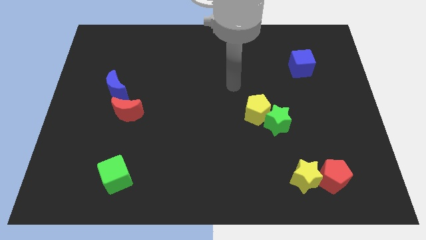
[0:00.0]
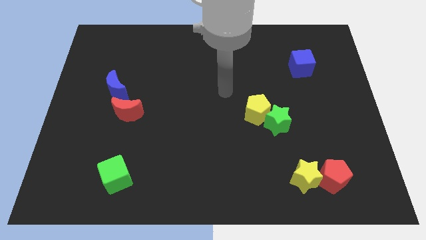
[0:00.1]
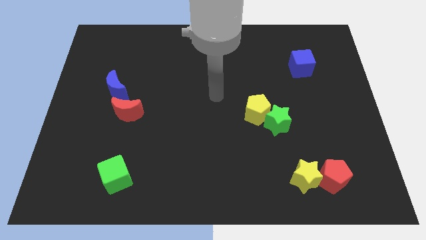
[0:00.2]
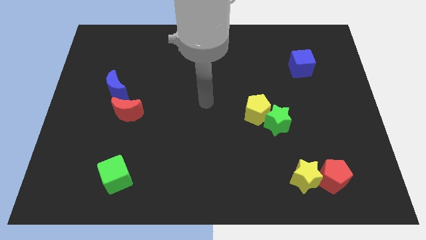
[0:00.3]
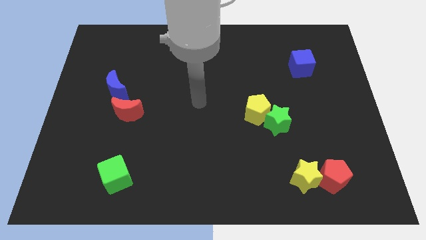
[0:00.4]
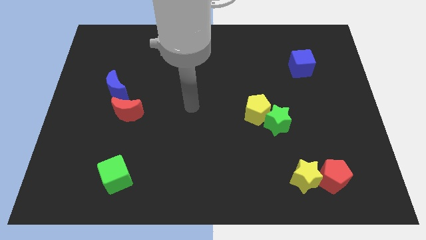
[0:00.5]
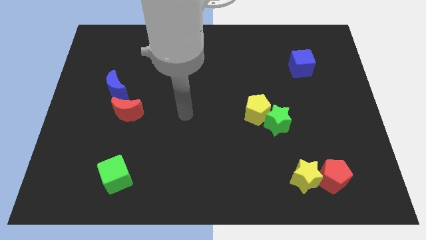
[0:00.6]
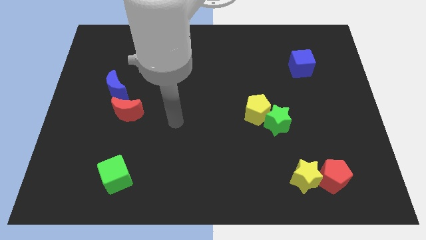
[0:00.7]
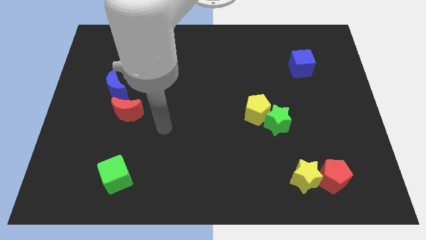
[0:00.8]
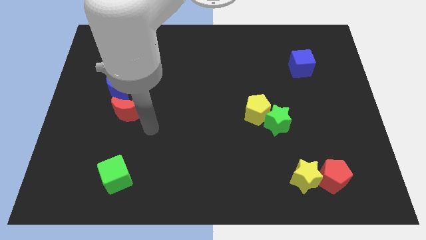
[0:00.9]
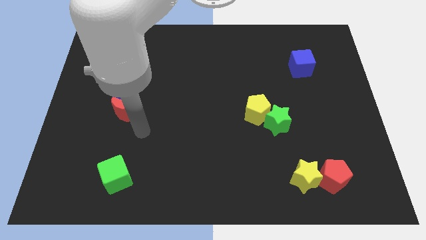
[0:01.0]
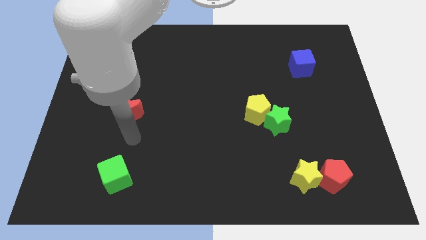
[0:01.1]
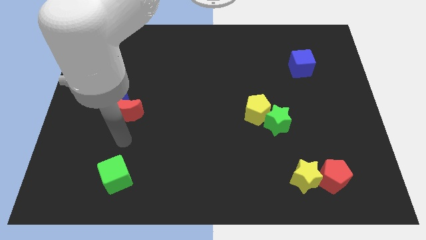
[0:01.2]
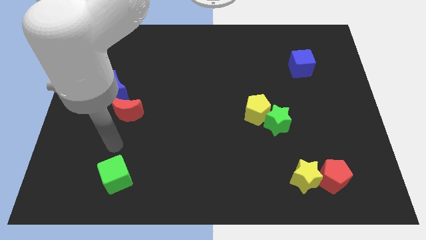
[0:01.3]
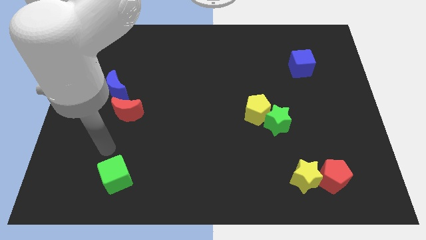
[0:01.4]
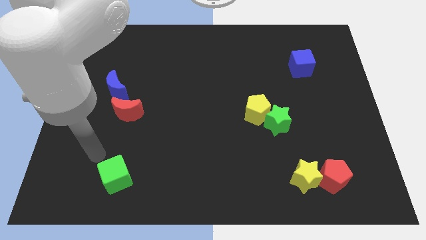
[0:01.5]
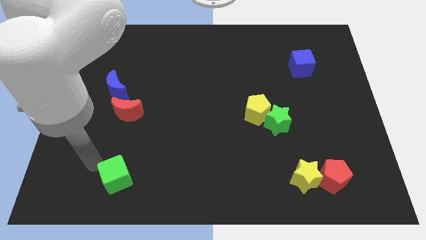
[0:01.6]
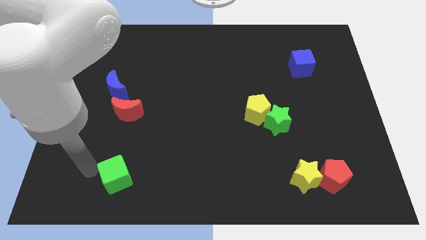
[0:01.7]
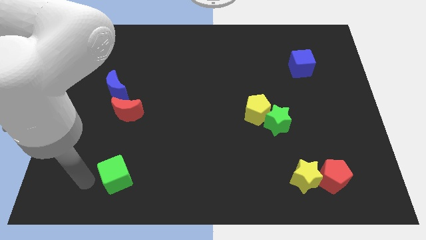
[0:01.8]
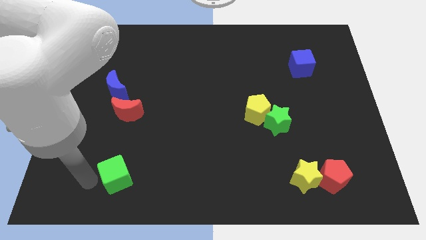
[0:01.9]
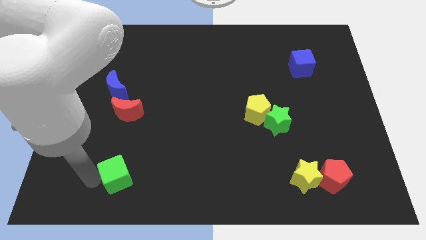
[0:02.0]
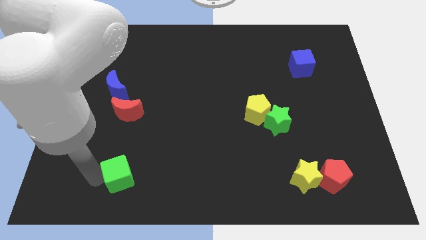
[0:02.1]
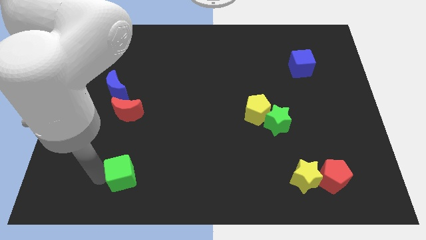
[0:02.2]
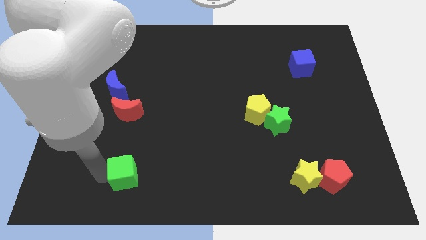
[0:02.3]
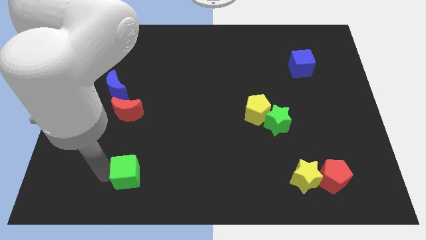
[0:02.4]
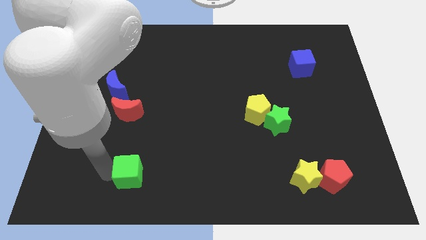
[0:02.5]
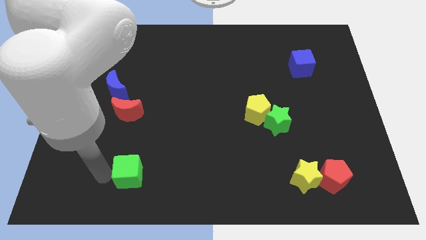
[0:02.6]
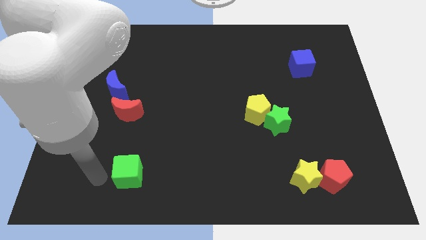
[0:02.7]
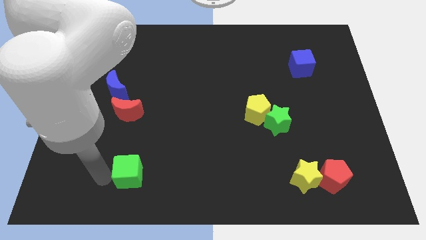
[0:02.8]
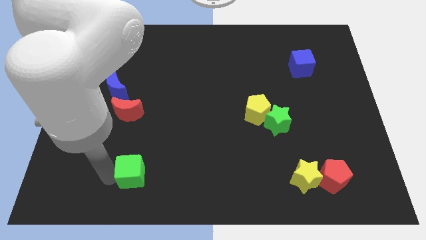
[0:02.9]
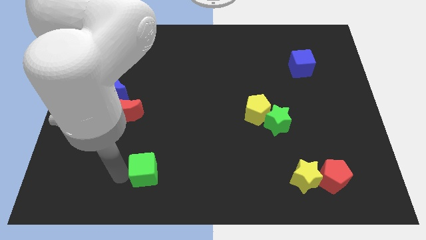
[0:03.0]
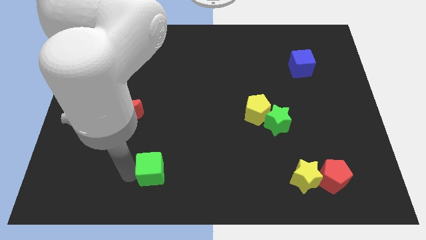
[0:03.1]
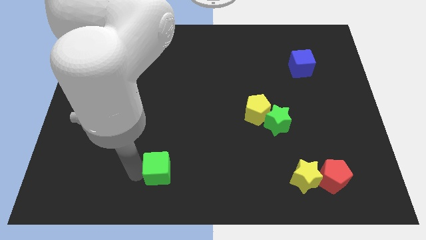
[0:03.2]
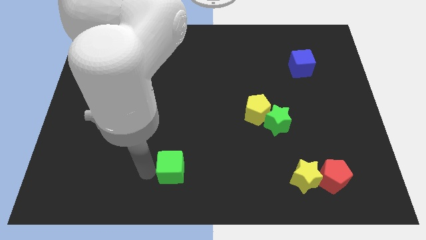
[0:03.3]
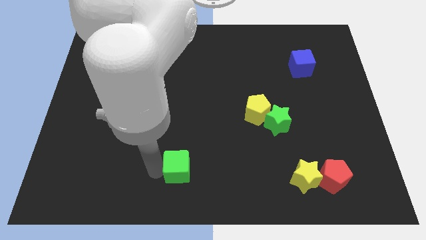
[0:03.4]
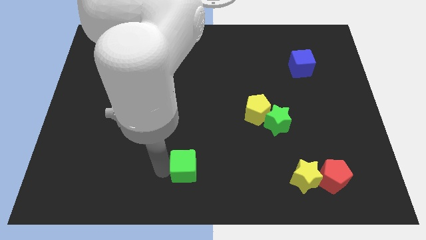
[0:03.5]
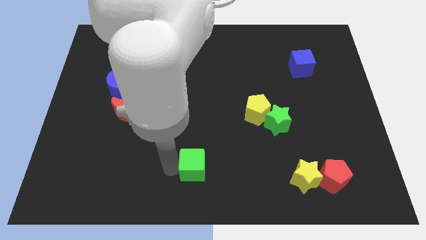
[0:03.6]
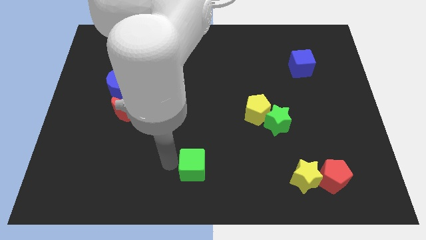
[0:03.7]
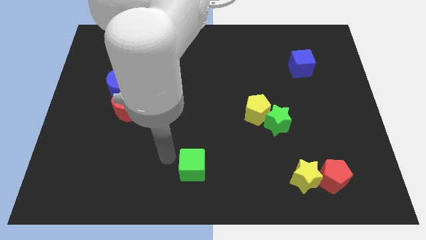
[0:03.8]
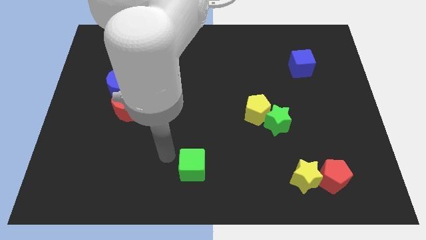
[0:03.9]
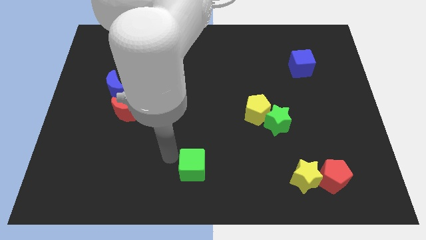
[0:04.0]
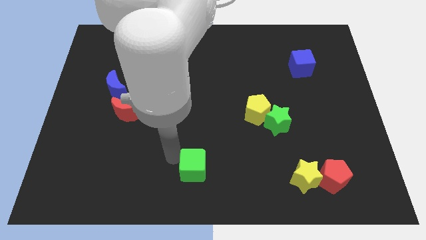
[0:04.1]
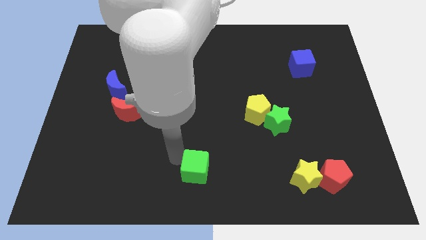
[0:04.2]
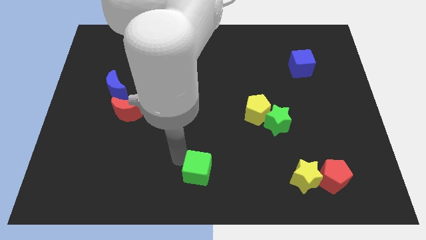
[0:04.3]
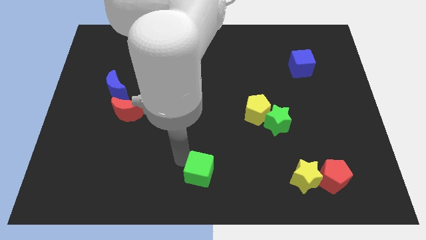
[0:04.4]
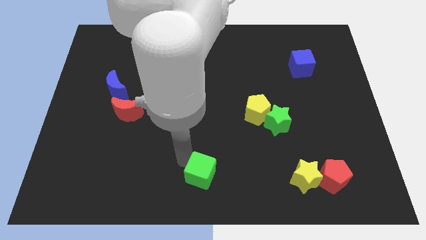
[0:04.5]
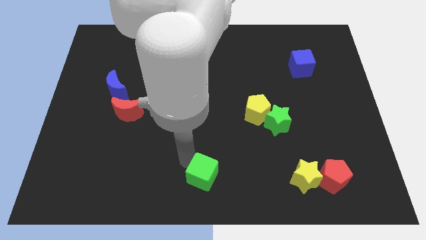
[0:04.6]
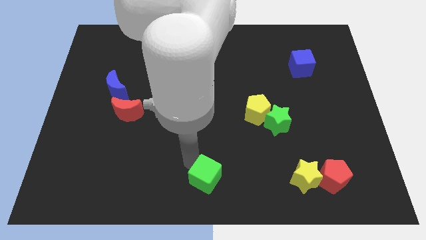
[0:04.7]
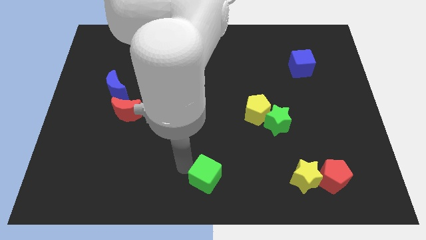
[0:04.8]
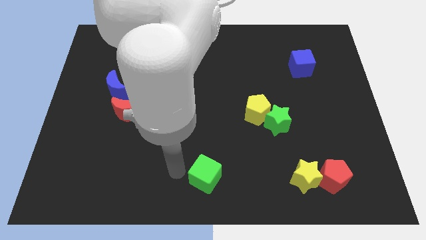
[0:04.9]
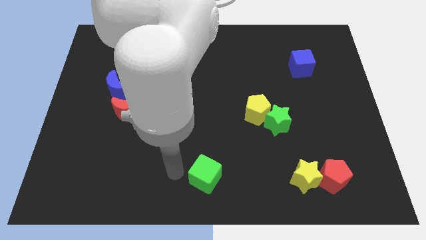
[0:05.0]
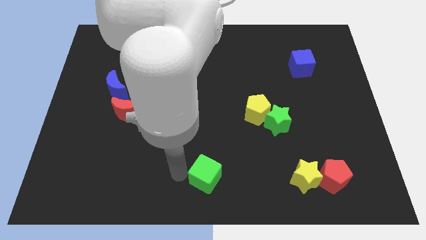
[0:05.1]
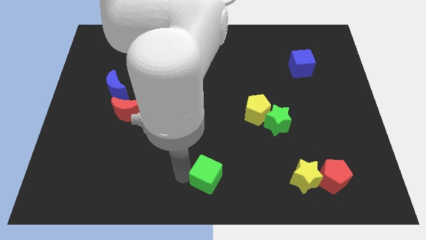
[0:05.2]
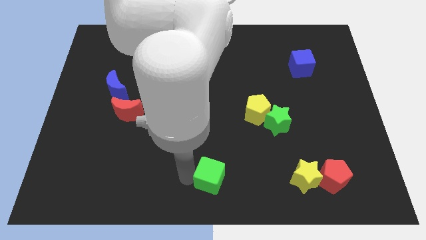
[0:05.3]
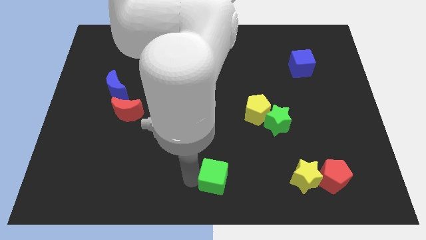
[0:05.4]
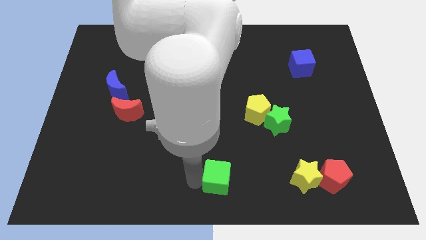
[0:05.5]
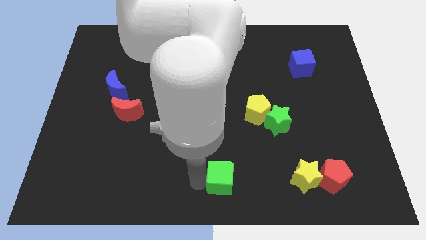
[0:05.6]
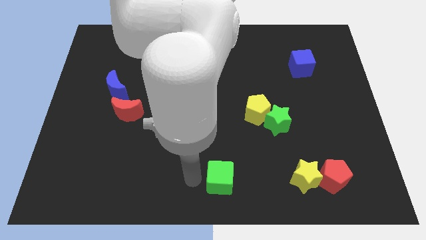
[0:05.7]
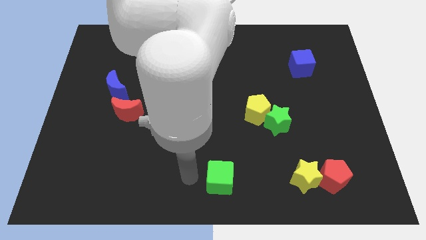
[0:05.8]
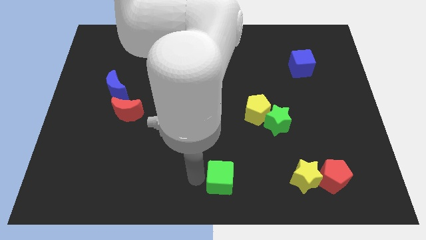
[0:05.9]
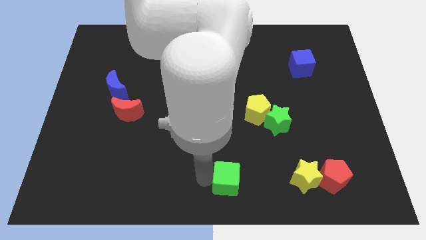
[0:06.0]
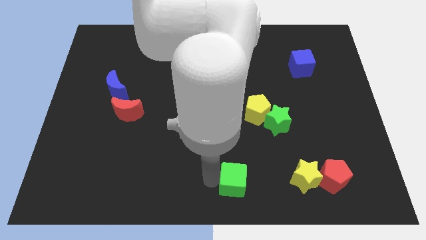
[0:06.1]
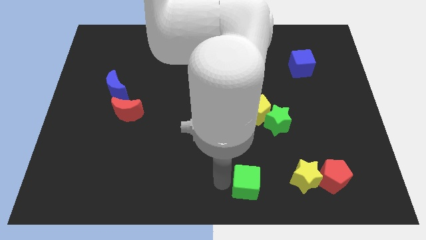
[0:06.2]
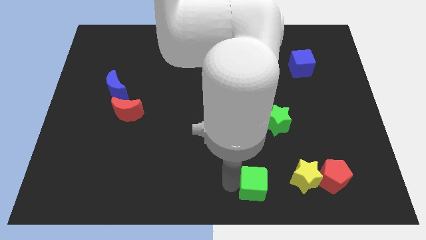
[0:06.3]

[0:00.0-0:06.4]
push the green cube to the left side of the red pentagon

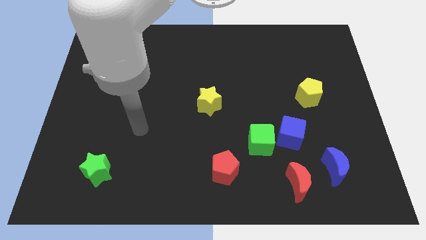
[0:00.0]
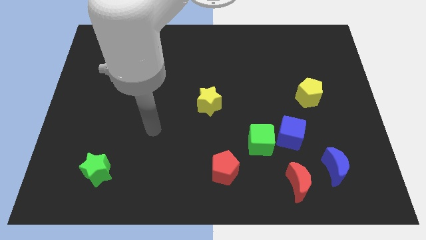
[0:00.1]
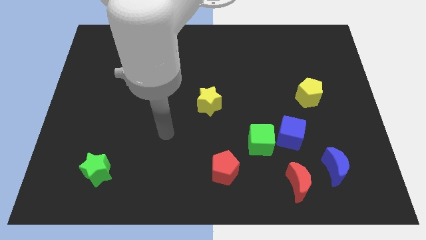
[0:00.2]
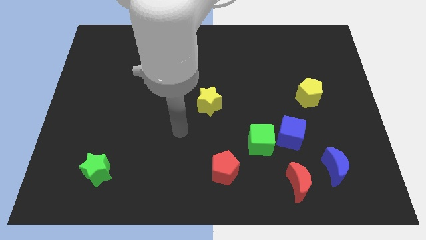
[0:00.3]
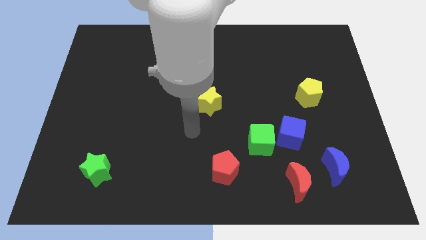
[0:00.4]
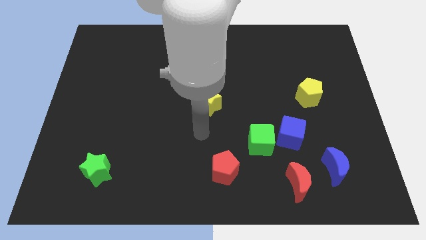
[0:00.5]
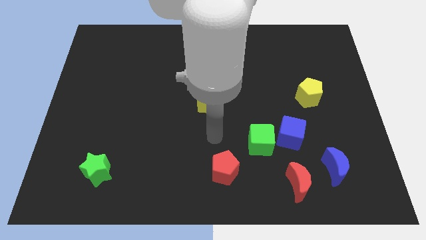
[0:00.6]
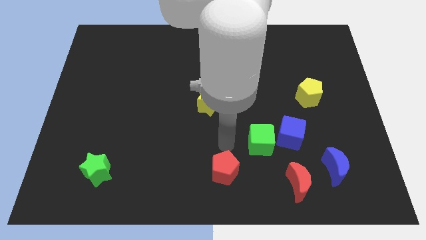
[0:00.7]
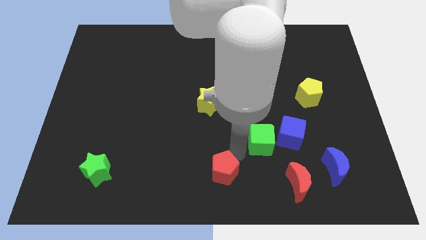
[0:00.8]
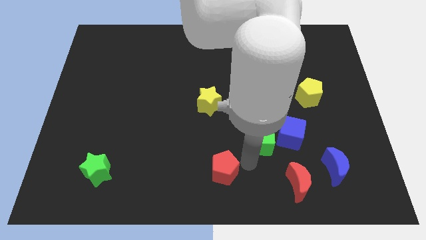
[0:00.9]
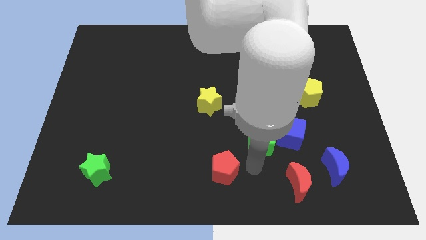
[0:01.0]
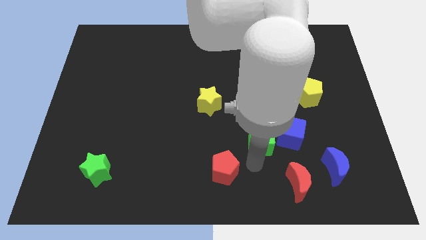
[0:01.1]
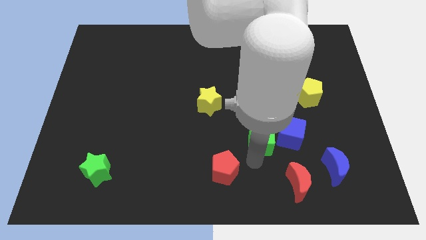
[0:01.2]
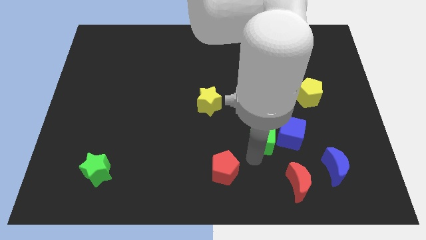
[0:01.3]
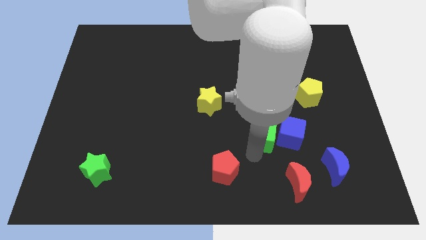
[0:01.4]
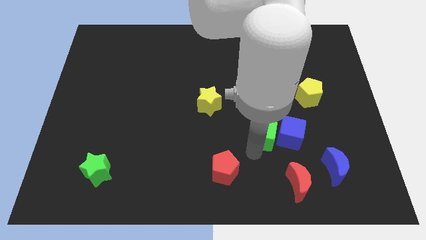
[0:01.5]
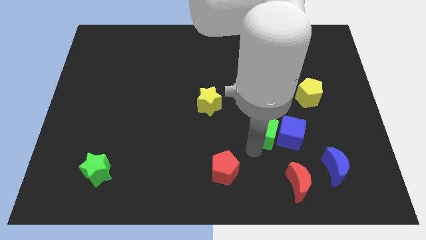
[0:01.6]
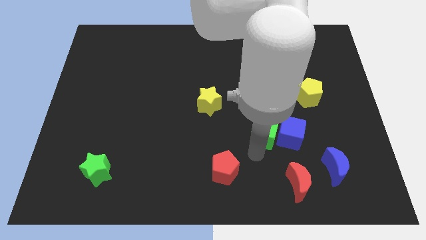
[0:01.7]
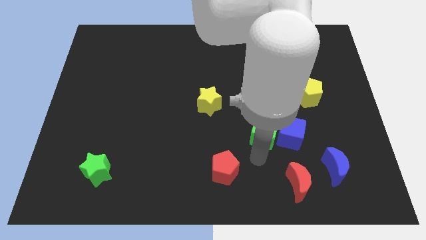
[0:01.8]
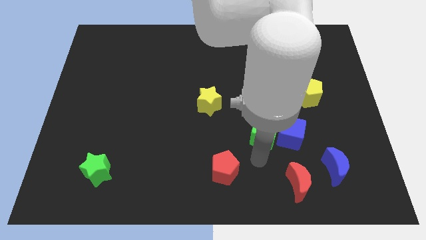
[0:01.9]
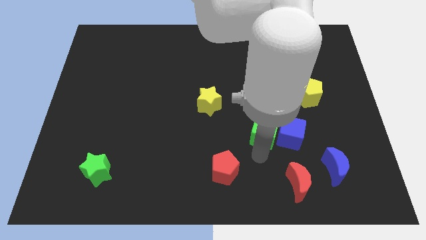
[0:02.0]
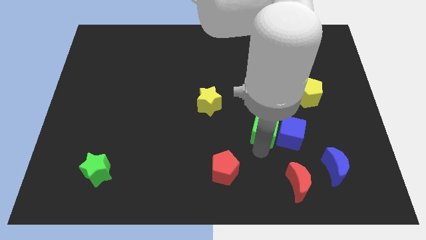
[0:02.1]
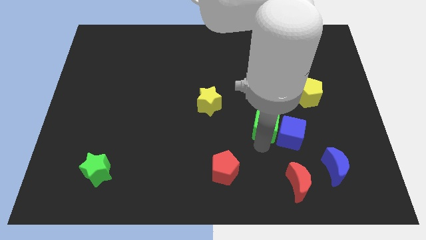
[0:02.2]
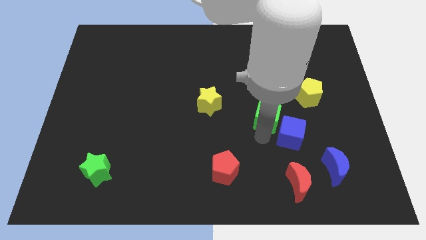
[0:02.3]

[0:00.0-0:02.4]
move the green cube to the top side of the blue cube
